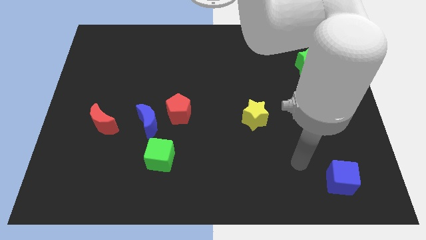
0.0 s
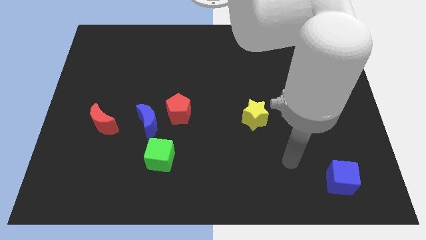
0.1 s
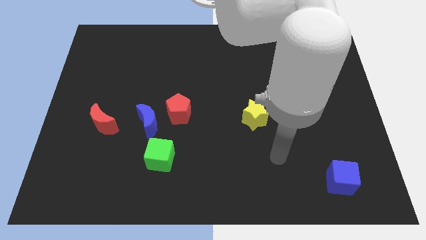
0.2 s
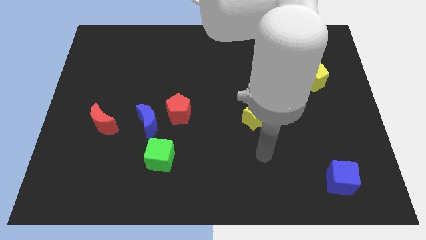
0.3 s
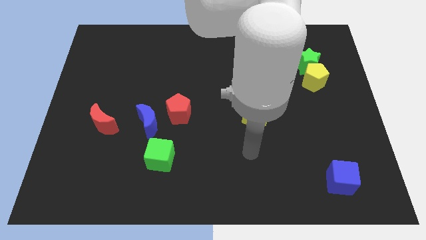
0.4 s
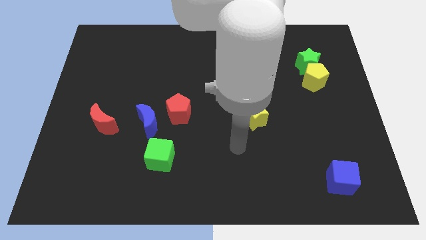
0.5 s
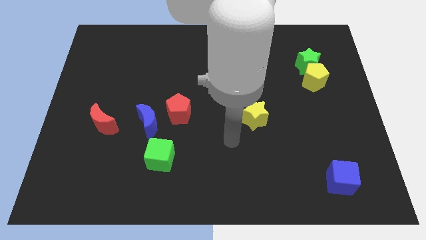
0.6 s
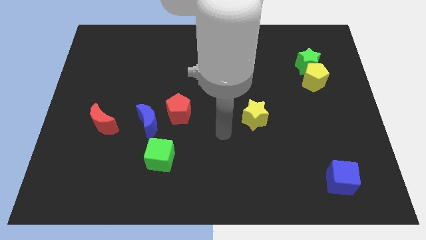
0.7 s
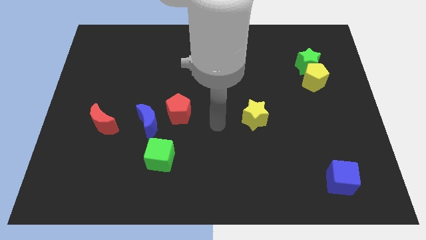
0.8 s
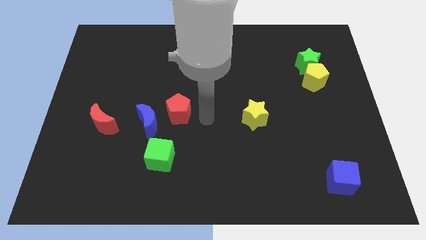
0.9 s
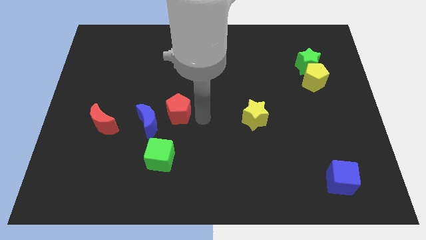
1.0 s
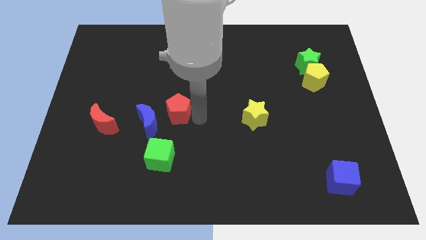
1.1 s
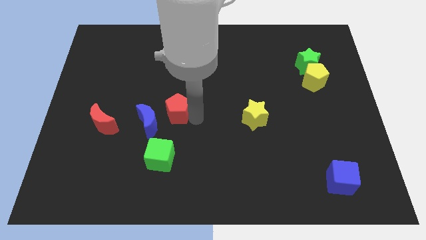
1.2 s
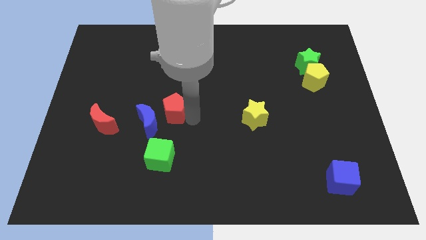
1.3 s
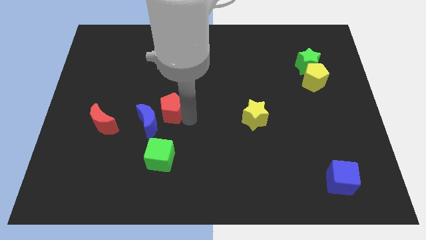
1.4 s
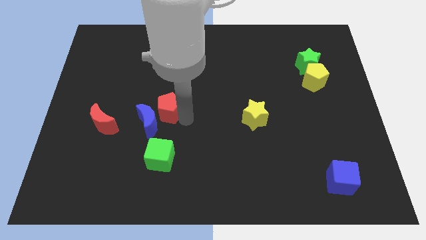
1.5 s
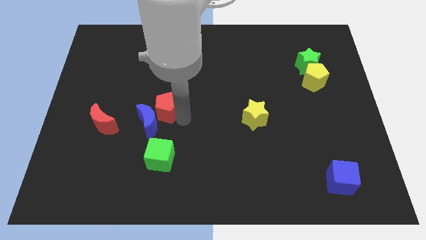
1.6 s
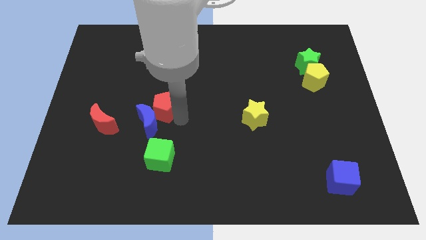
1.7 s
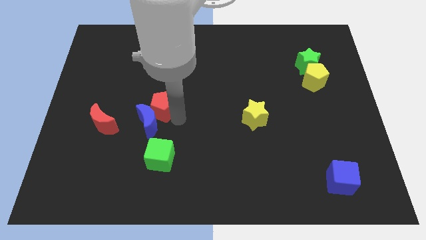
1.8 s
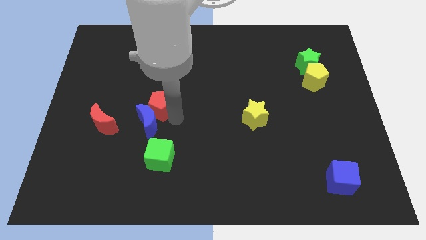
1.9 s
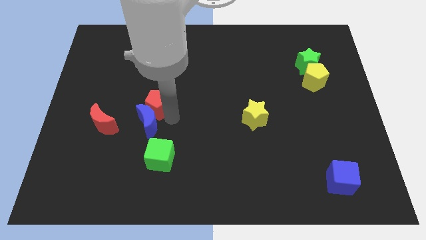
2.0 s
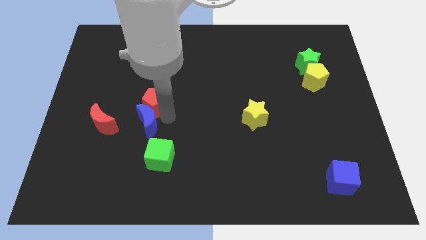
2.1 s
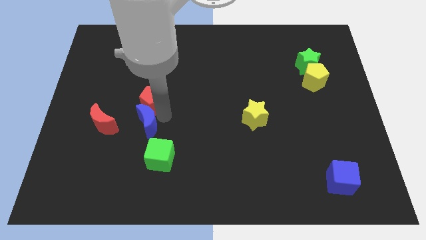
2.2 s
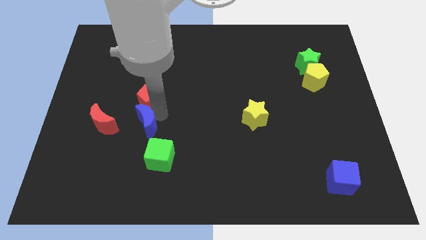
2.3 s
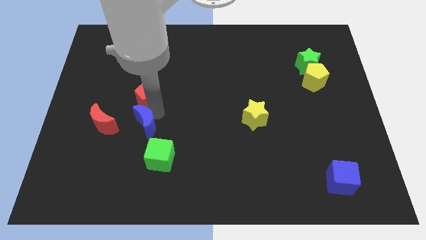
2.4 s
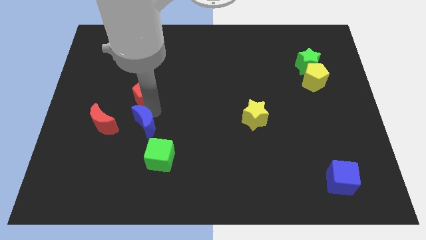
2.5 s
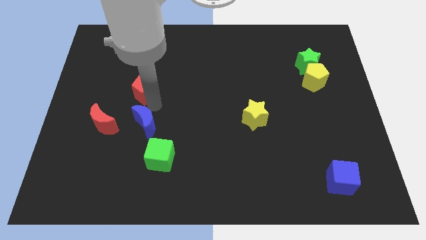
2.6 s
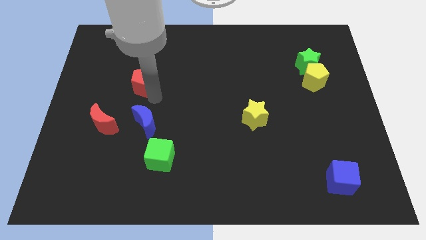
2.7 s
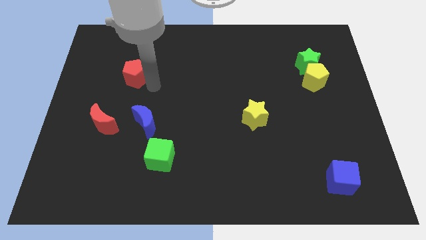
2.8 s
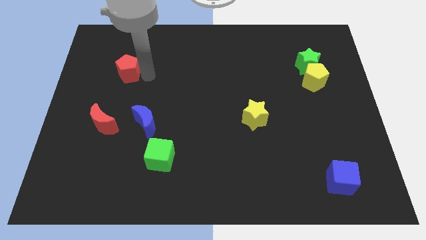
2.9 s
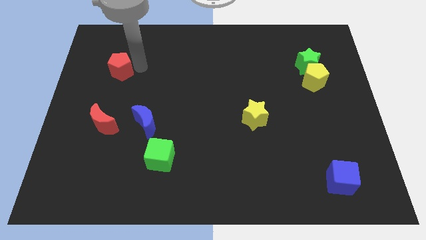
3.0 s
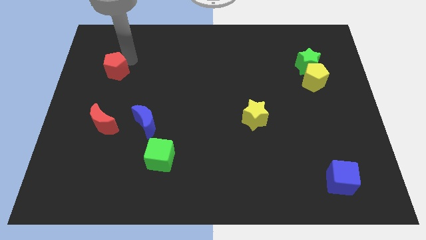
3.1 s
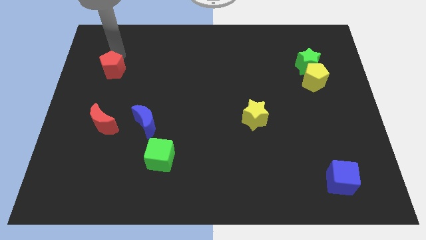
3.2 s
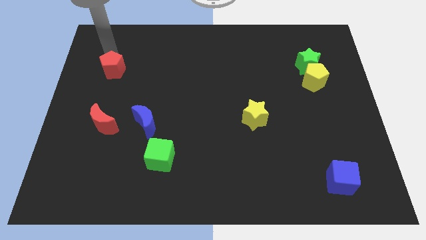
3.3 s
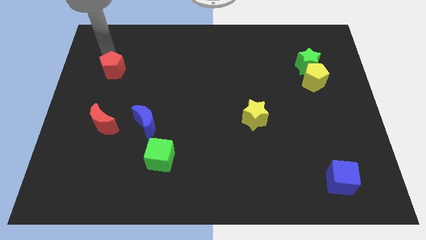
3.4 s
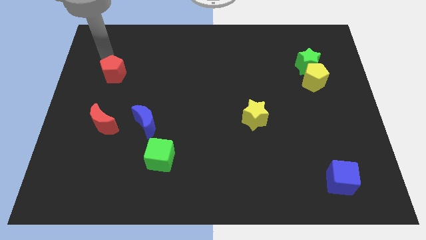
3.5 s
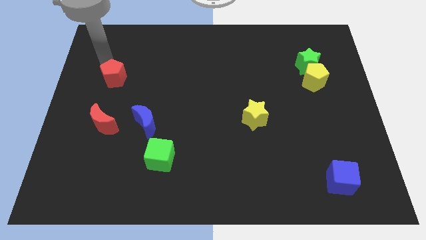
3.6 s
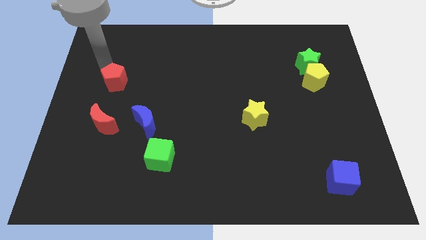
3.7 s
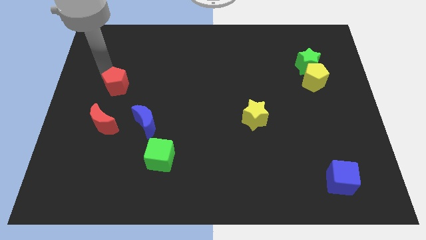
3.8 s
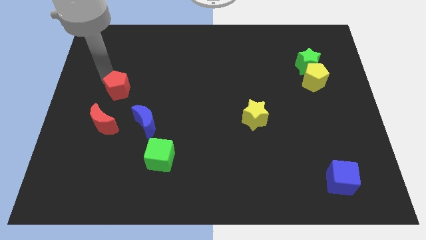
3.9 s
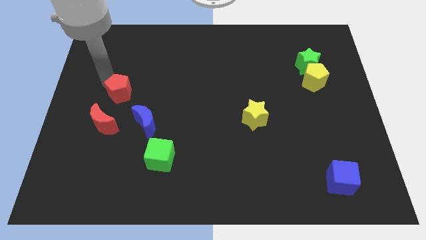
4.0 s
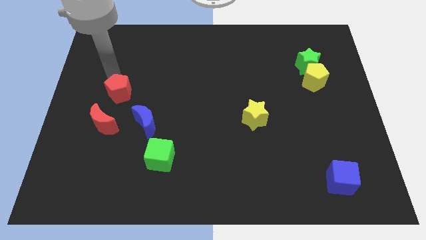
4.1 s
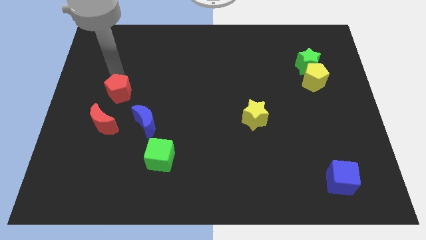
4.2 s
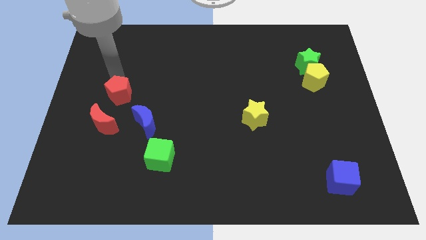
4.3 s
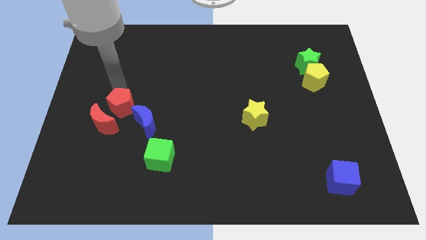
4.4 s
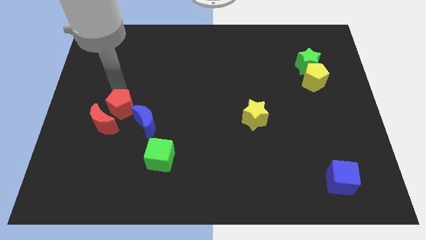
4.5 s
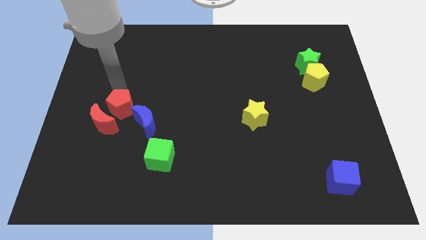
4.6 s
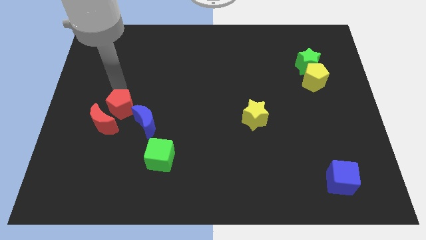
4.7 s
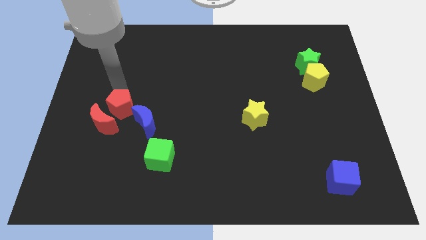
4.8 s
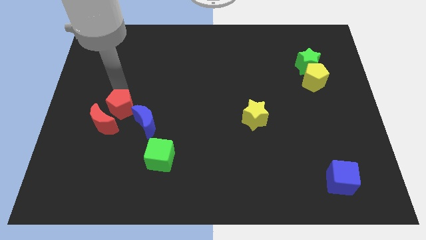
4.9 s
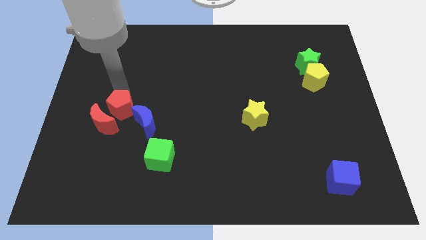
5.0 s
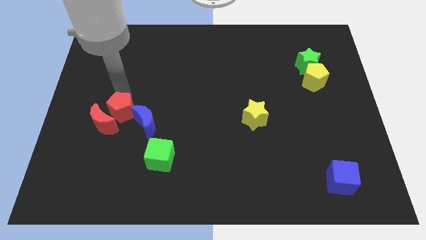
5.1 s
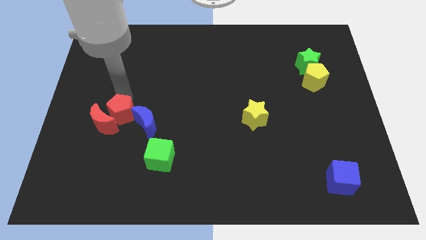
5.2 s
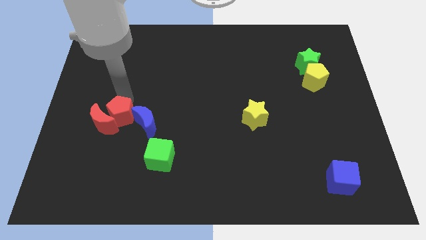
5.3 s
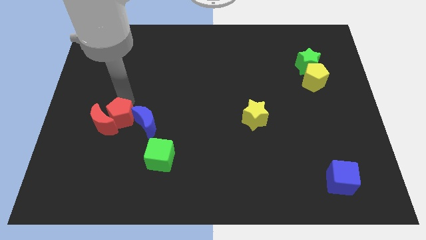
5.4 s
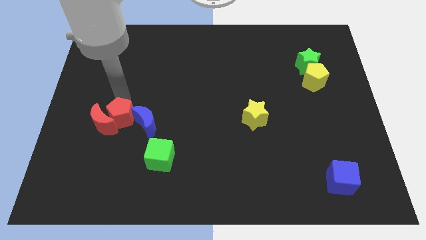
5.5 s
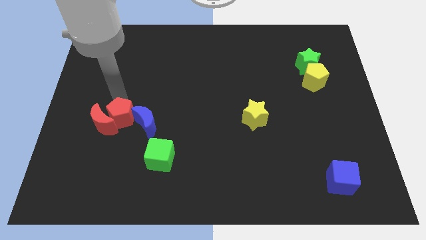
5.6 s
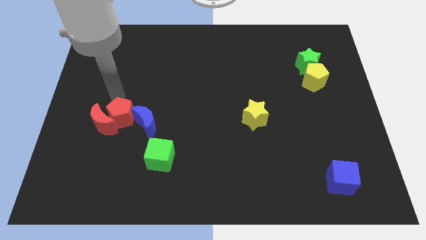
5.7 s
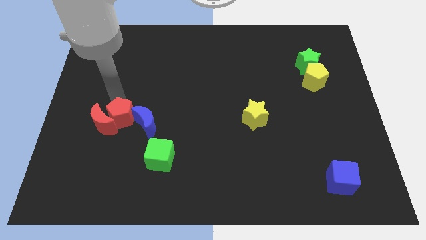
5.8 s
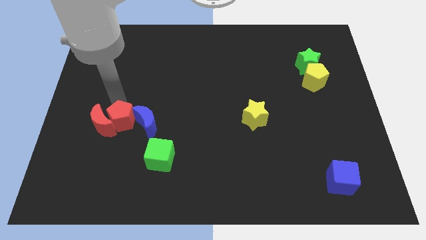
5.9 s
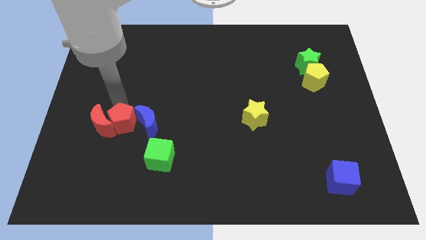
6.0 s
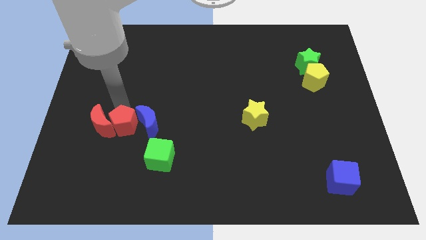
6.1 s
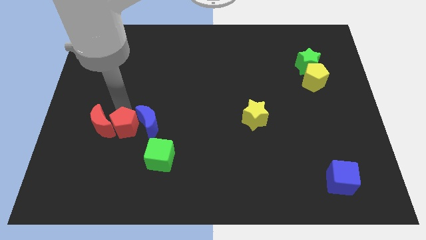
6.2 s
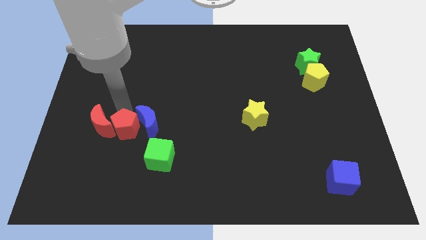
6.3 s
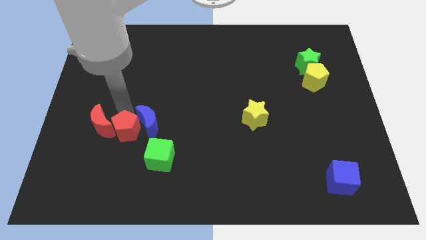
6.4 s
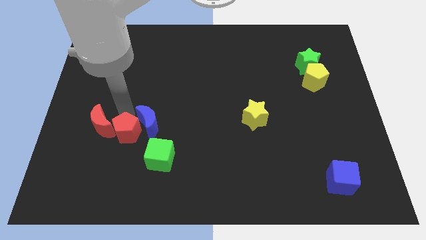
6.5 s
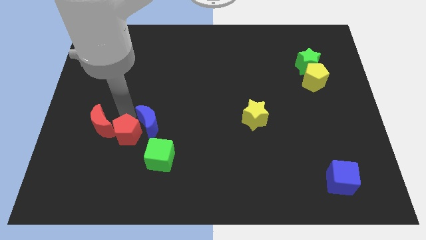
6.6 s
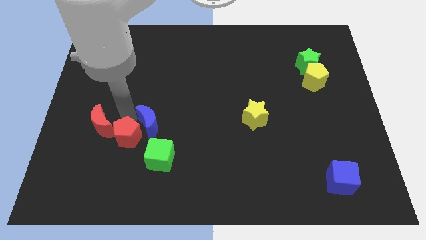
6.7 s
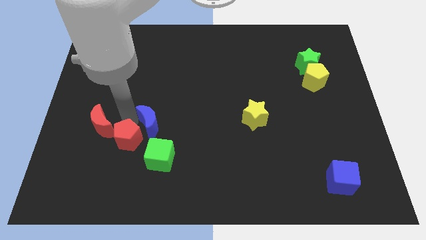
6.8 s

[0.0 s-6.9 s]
put the red pentagon just left of the green cube
